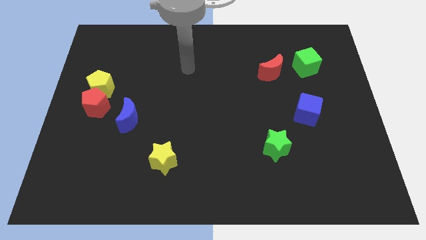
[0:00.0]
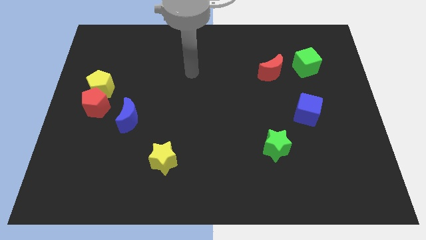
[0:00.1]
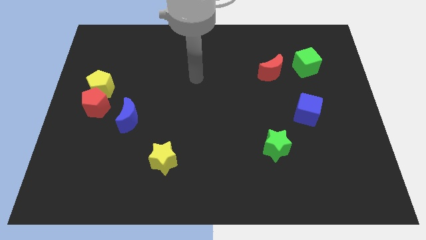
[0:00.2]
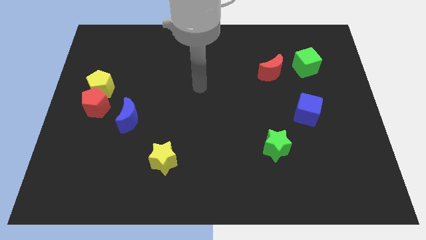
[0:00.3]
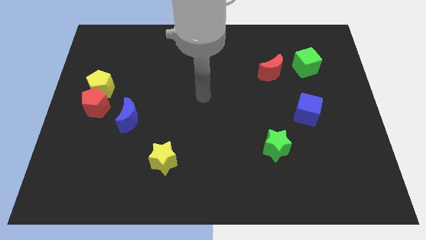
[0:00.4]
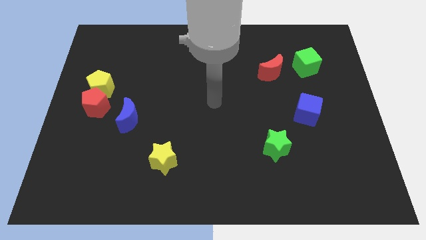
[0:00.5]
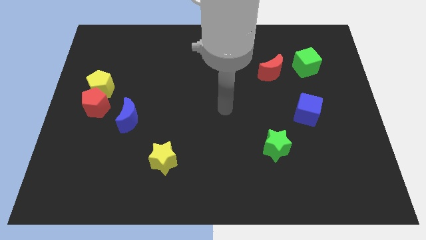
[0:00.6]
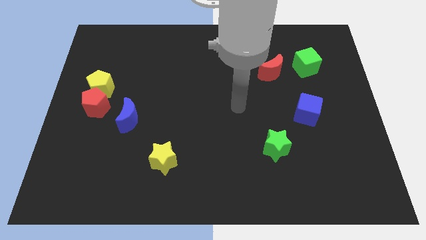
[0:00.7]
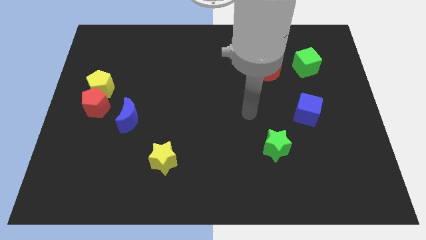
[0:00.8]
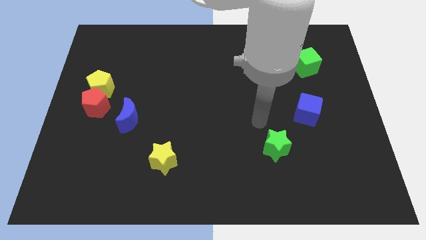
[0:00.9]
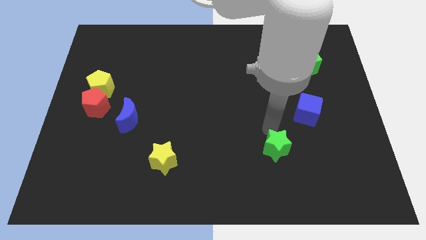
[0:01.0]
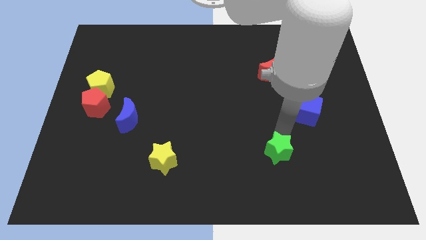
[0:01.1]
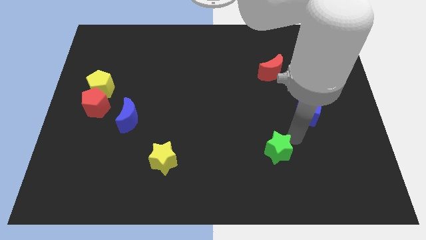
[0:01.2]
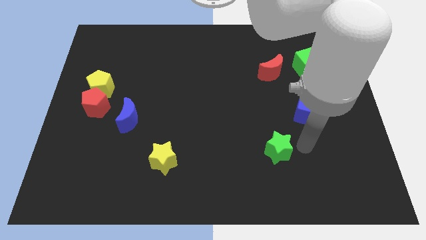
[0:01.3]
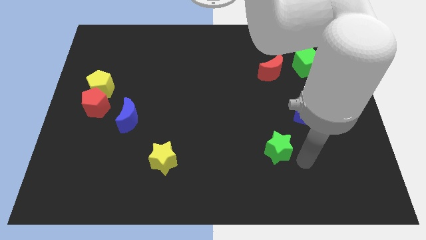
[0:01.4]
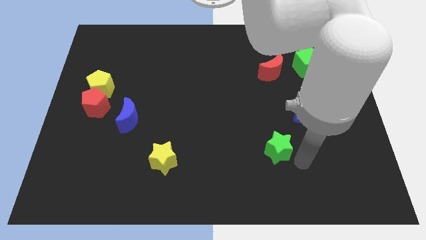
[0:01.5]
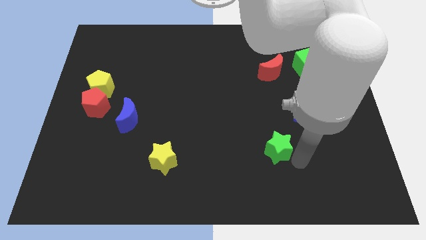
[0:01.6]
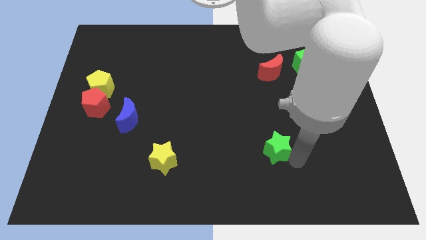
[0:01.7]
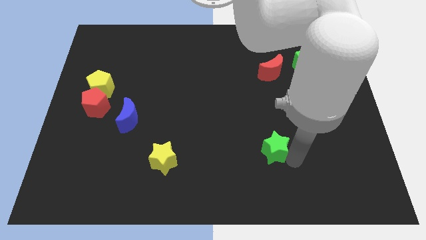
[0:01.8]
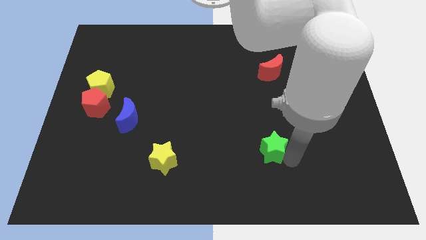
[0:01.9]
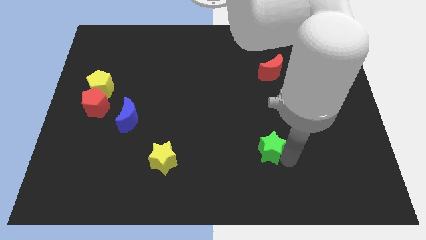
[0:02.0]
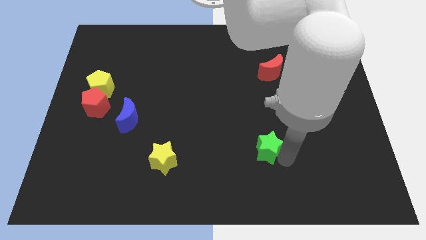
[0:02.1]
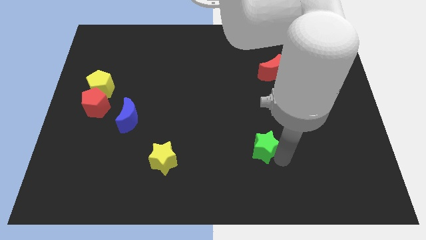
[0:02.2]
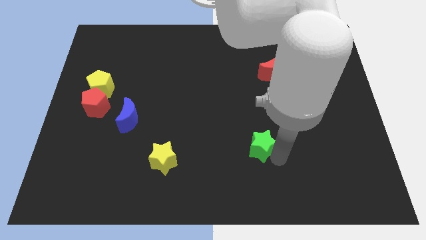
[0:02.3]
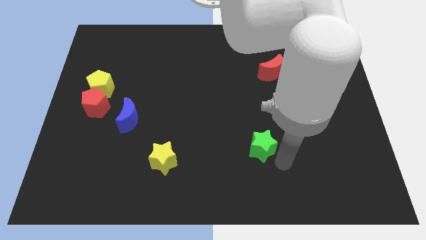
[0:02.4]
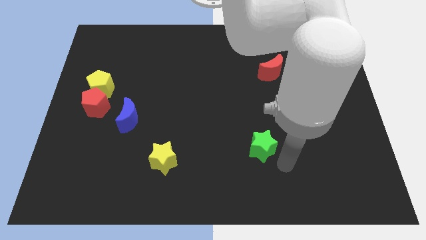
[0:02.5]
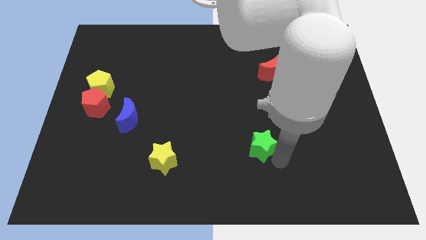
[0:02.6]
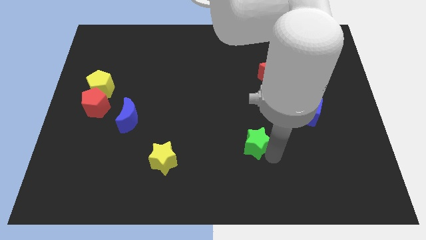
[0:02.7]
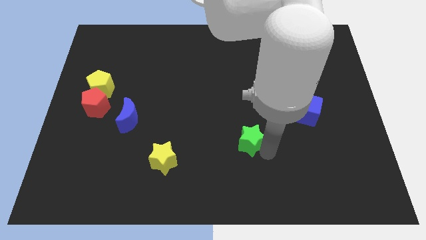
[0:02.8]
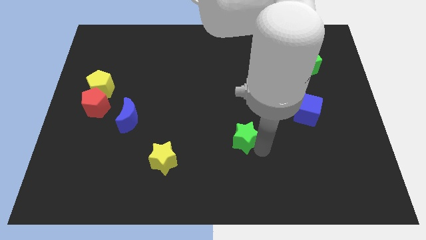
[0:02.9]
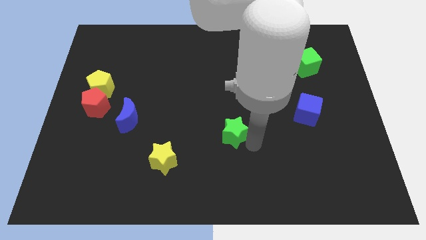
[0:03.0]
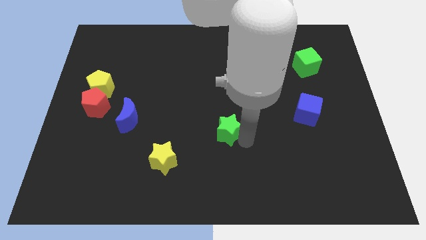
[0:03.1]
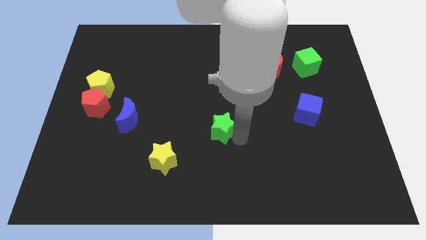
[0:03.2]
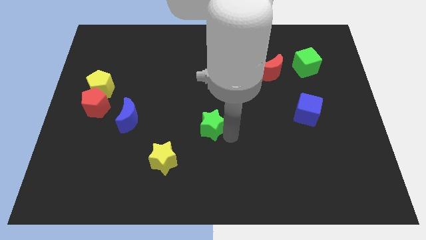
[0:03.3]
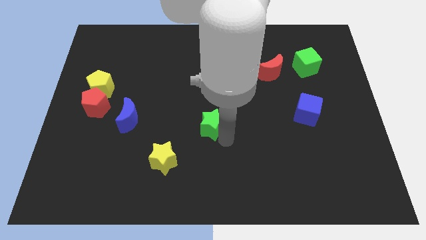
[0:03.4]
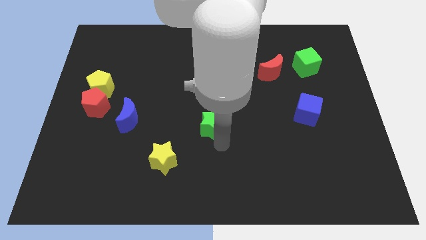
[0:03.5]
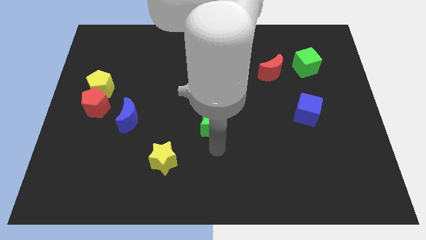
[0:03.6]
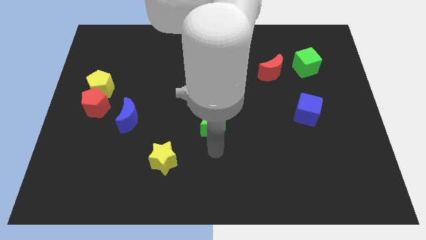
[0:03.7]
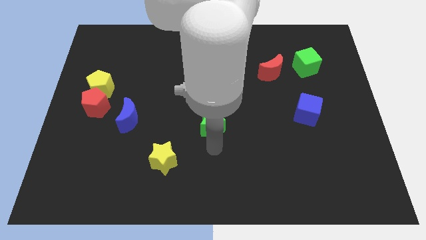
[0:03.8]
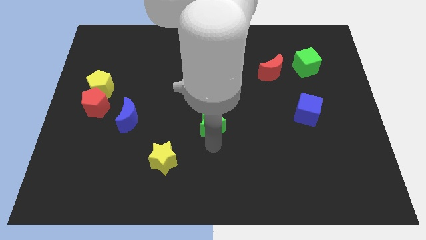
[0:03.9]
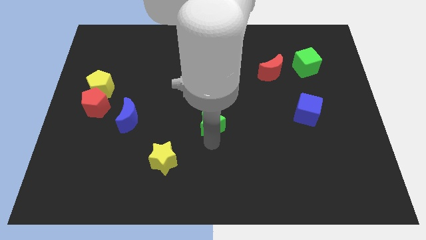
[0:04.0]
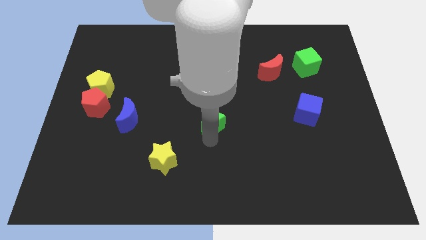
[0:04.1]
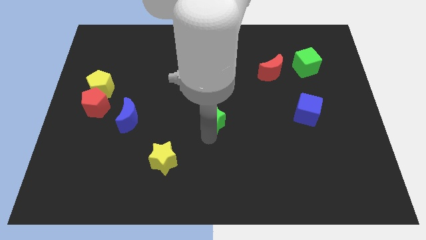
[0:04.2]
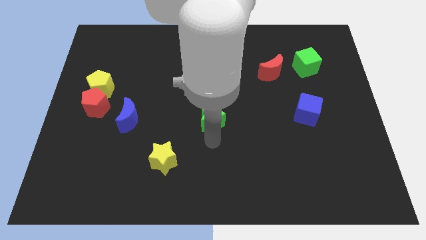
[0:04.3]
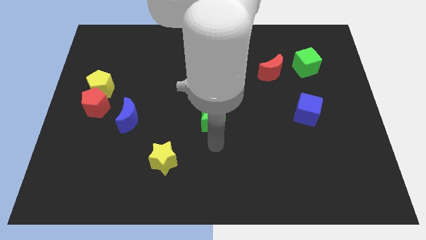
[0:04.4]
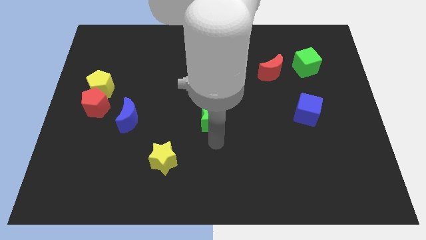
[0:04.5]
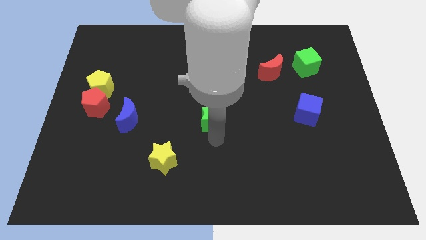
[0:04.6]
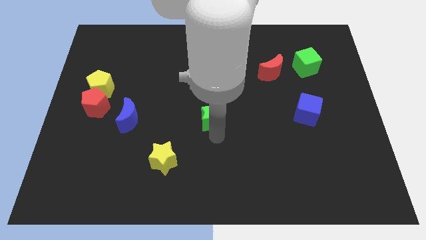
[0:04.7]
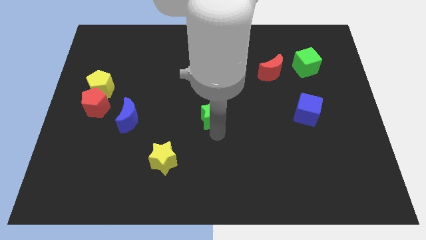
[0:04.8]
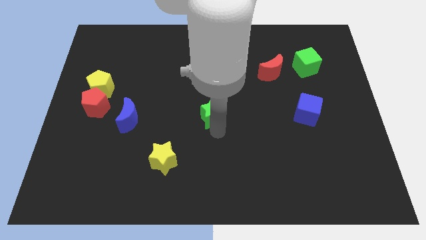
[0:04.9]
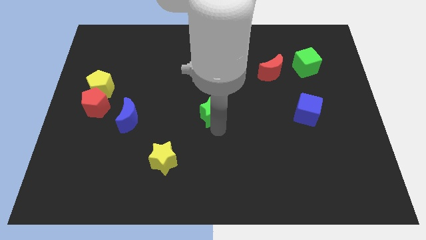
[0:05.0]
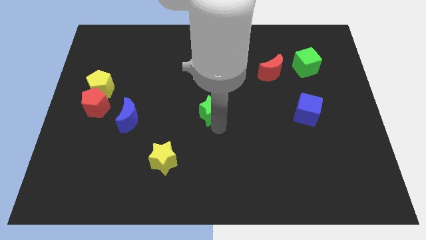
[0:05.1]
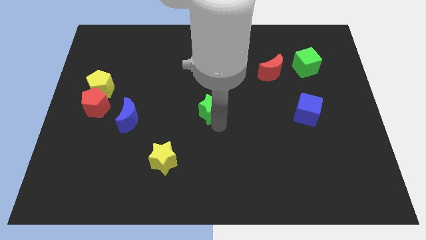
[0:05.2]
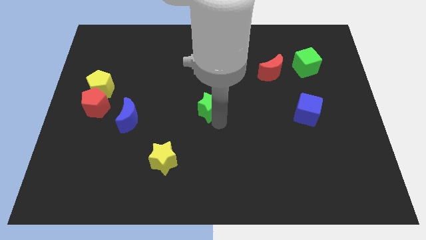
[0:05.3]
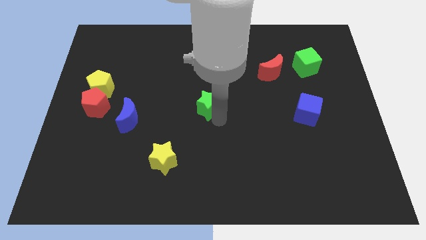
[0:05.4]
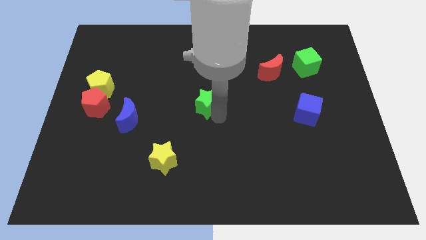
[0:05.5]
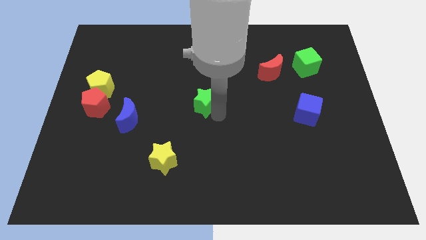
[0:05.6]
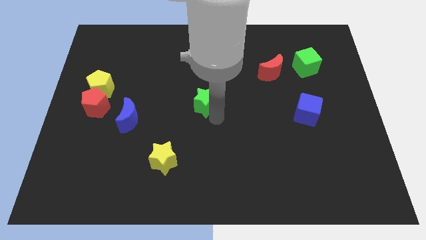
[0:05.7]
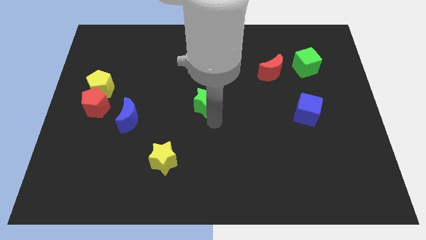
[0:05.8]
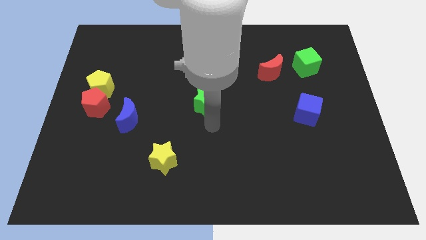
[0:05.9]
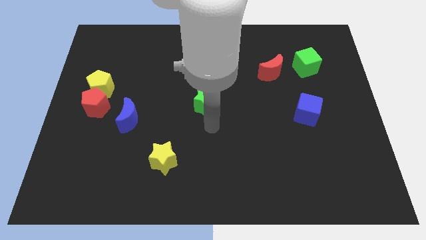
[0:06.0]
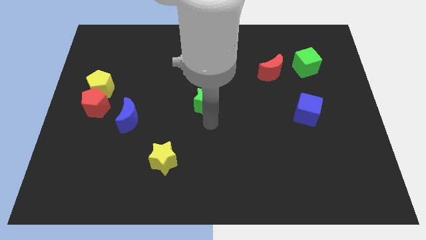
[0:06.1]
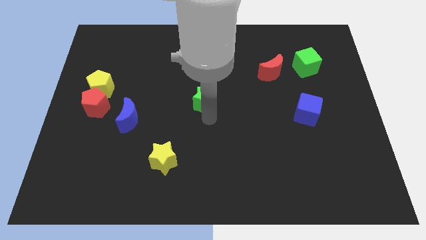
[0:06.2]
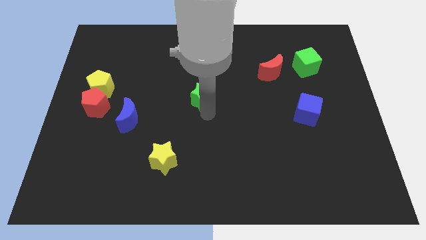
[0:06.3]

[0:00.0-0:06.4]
move the green star up and to the left diagonally

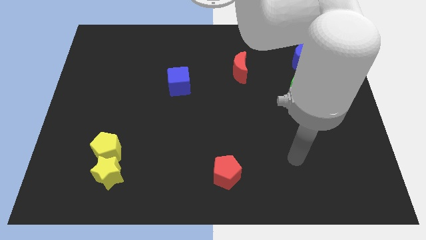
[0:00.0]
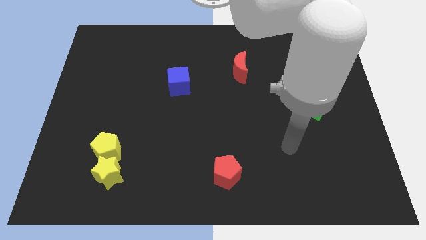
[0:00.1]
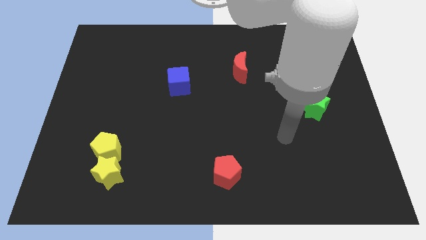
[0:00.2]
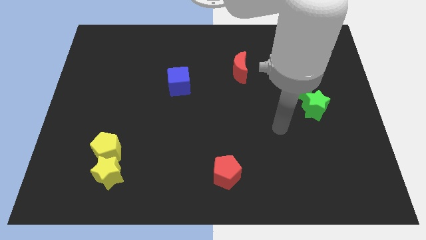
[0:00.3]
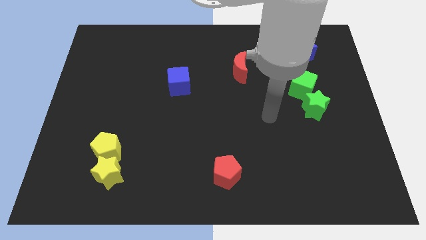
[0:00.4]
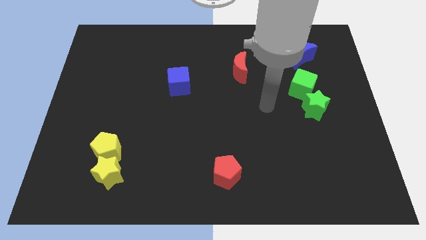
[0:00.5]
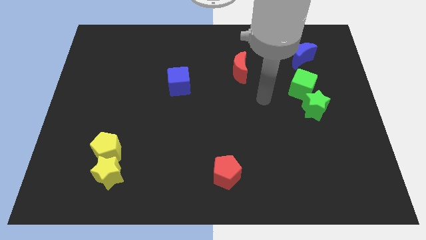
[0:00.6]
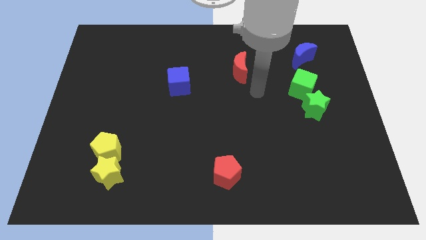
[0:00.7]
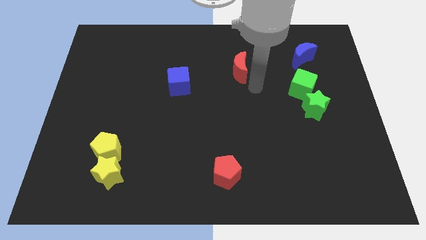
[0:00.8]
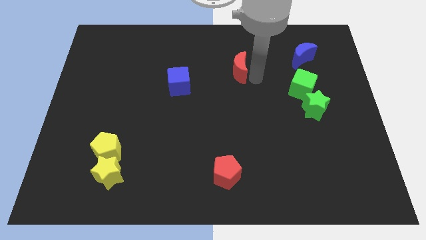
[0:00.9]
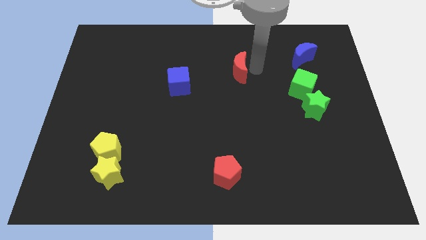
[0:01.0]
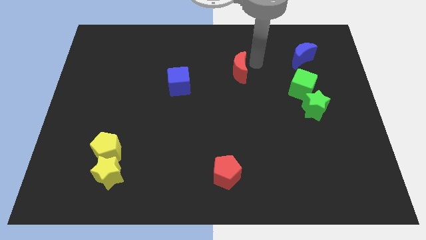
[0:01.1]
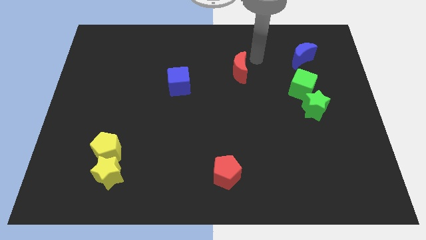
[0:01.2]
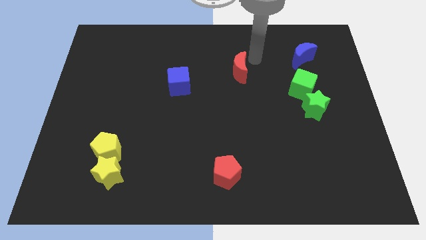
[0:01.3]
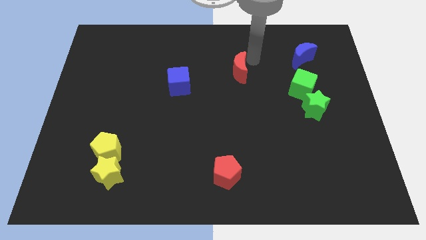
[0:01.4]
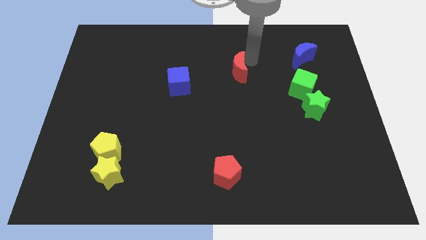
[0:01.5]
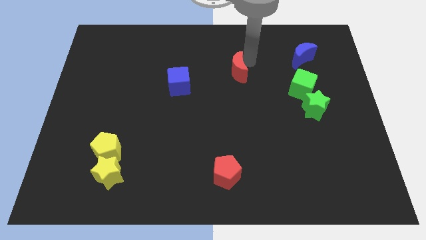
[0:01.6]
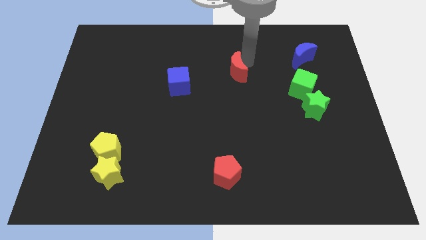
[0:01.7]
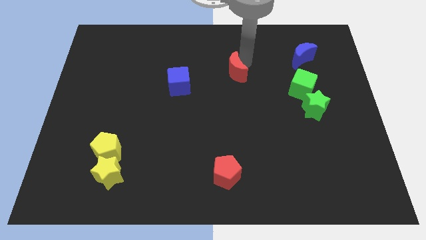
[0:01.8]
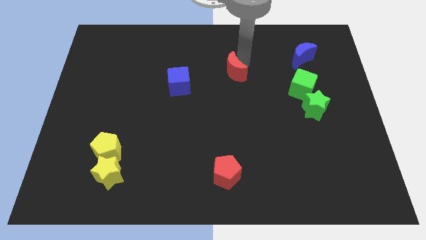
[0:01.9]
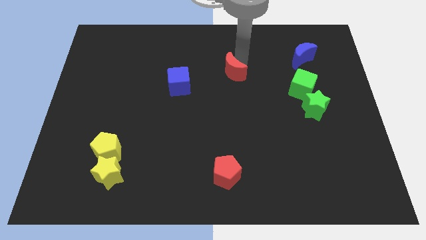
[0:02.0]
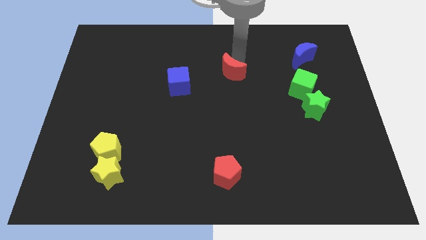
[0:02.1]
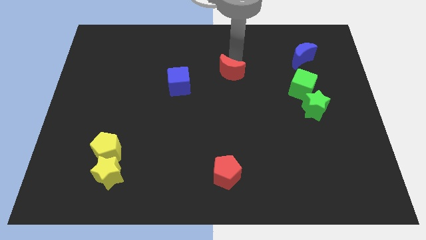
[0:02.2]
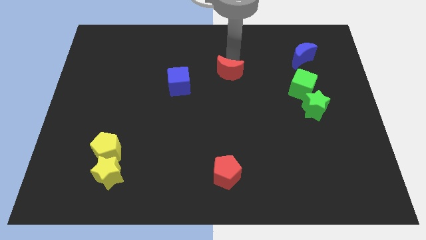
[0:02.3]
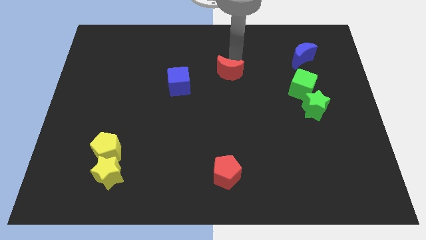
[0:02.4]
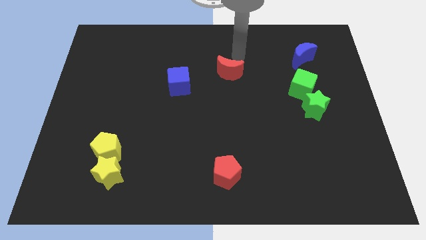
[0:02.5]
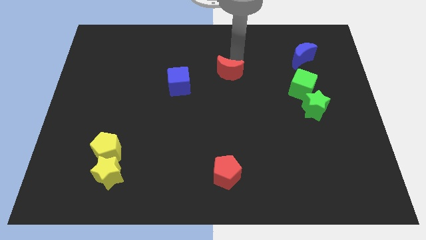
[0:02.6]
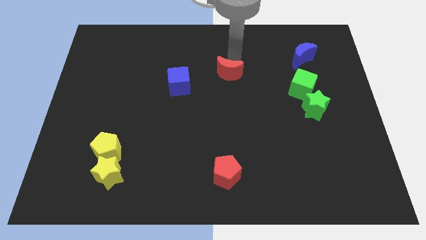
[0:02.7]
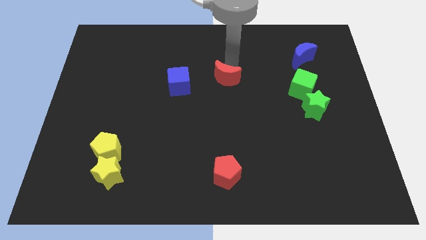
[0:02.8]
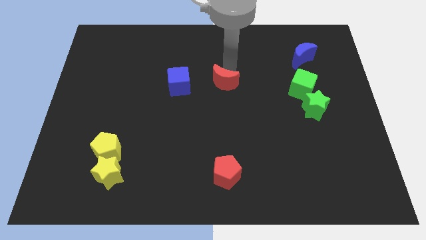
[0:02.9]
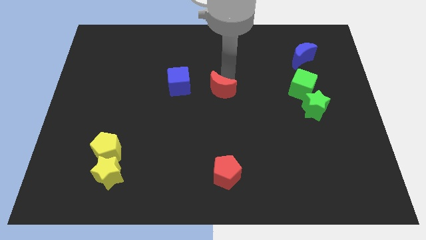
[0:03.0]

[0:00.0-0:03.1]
slightly slide the red moon downwards and left
